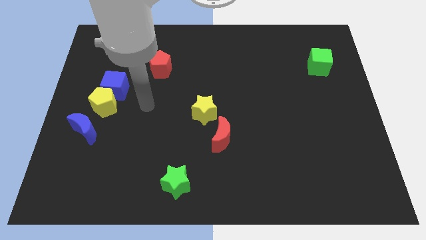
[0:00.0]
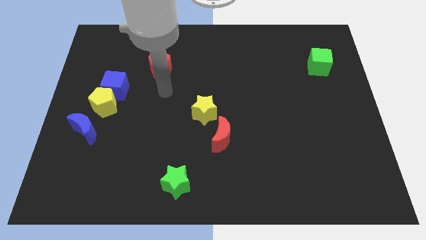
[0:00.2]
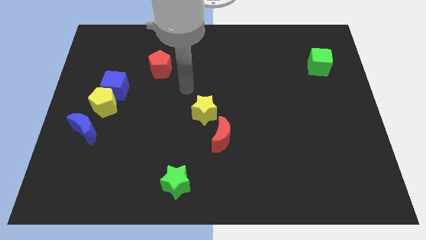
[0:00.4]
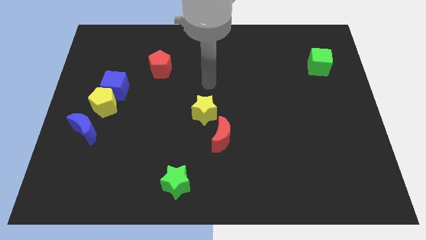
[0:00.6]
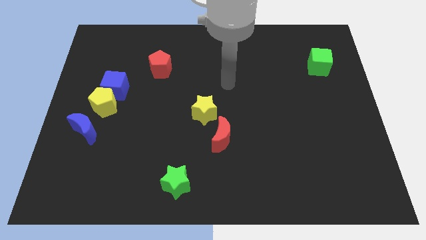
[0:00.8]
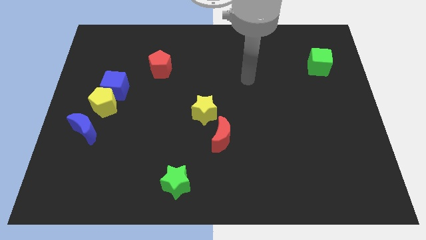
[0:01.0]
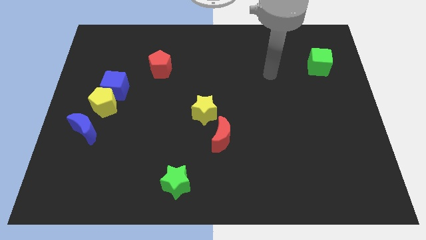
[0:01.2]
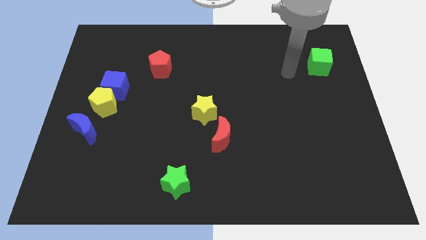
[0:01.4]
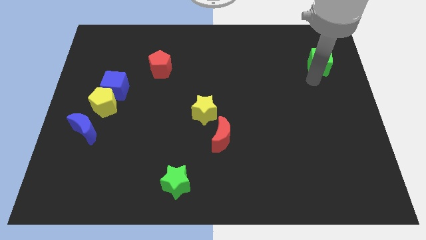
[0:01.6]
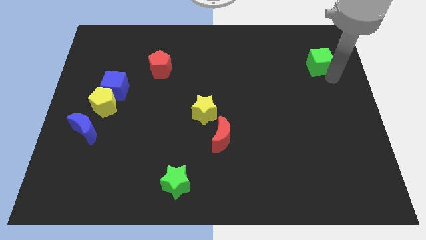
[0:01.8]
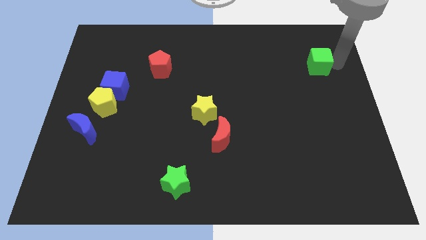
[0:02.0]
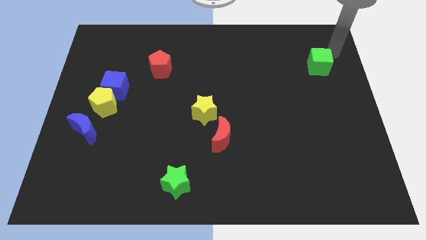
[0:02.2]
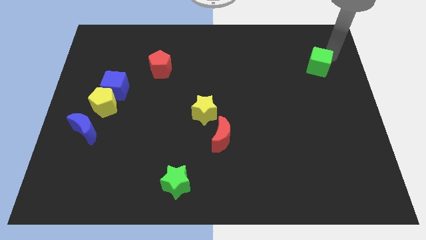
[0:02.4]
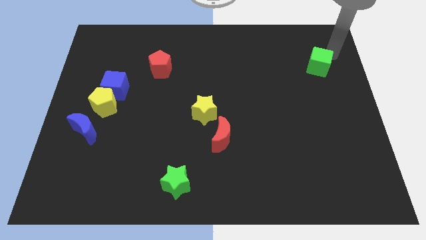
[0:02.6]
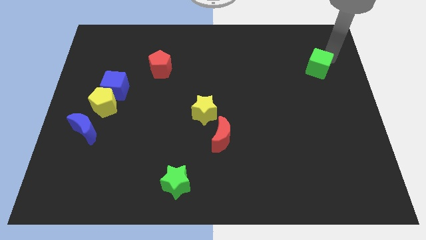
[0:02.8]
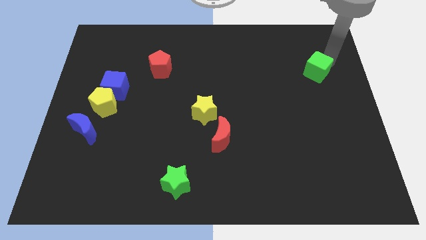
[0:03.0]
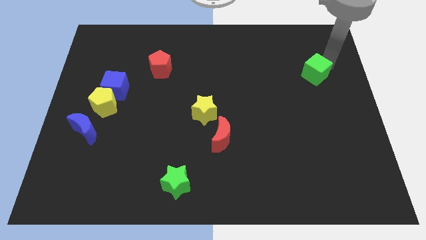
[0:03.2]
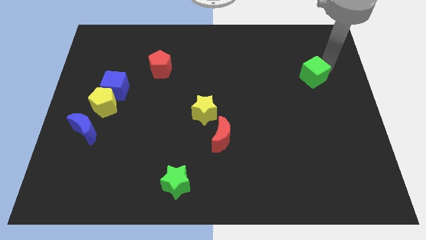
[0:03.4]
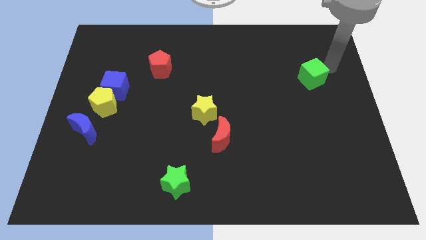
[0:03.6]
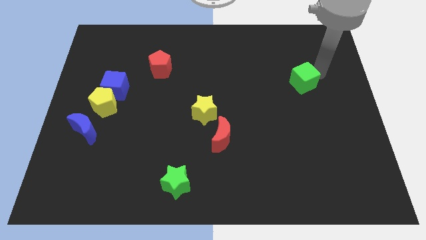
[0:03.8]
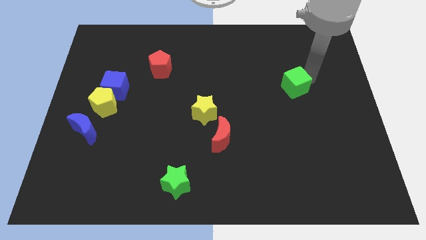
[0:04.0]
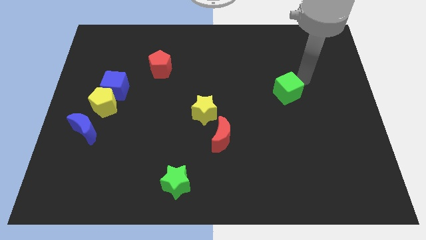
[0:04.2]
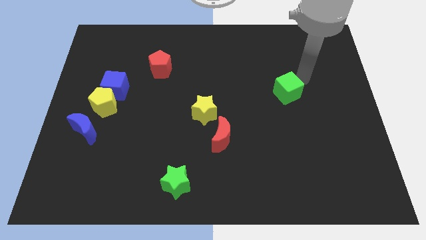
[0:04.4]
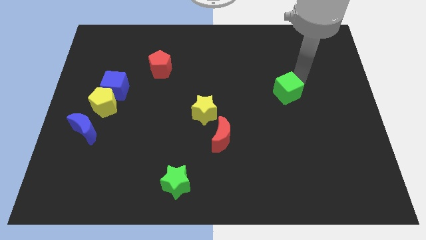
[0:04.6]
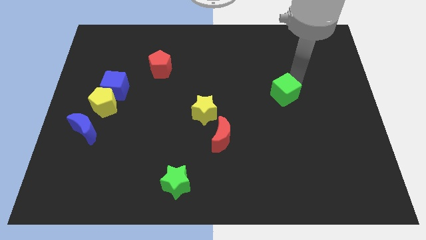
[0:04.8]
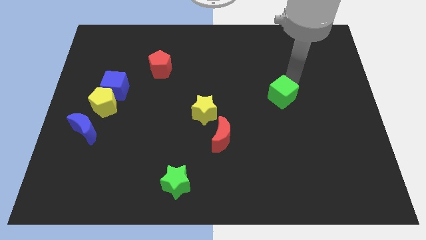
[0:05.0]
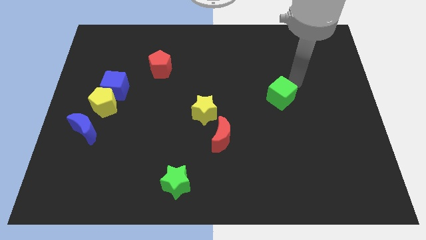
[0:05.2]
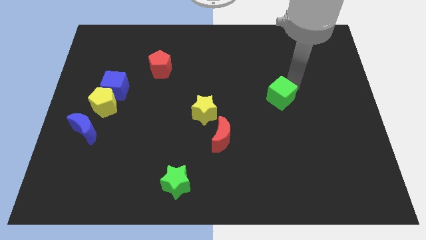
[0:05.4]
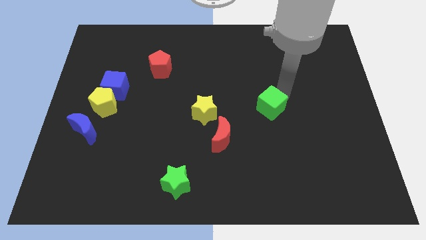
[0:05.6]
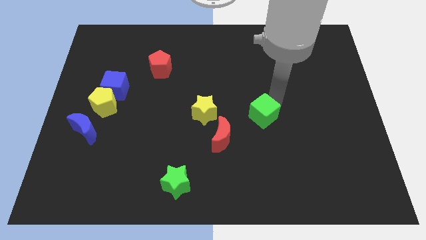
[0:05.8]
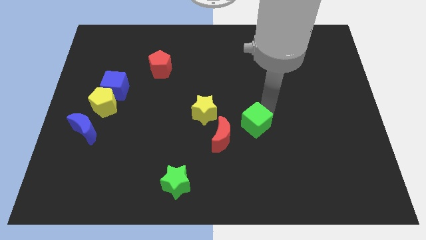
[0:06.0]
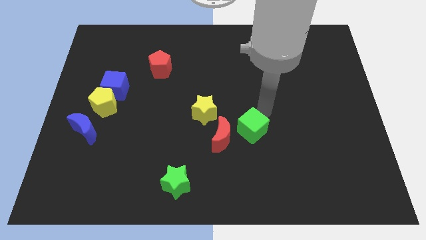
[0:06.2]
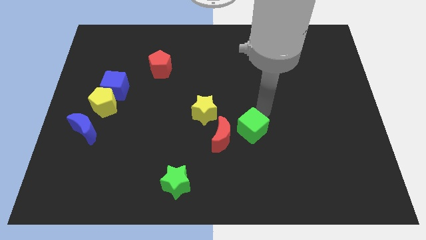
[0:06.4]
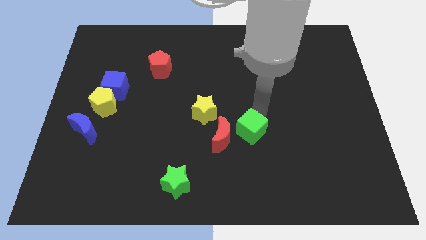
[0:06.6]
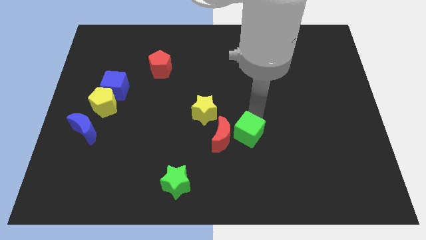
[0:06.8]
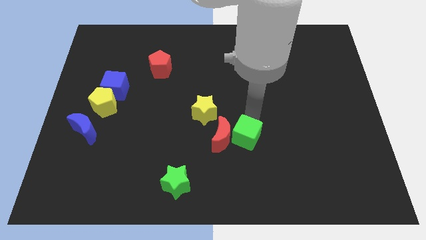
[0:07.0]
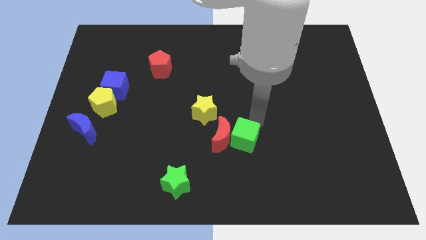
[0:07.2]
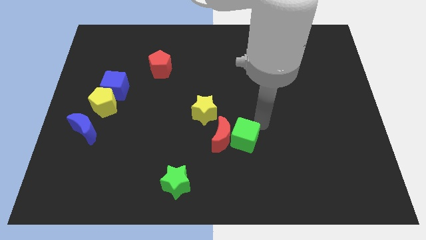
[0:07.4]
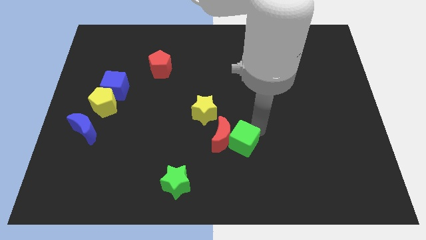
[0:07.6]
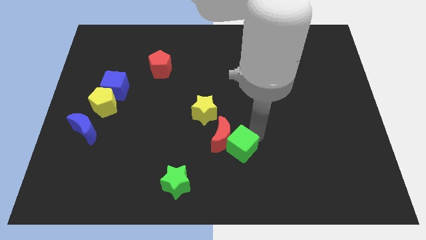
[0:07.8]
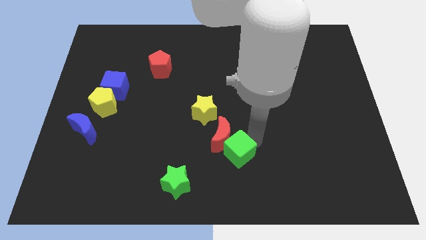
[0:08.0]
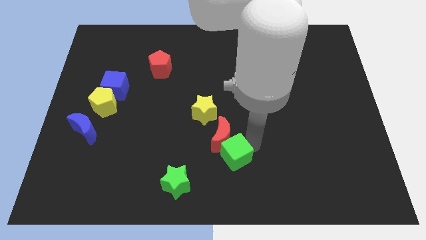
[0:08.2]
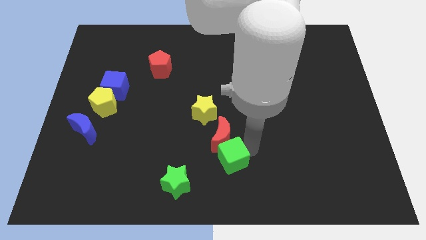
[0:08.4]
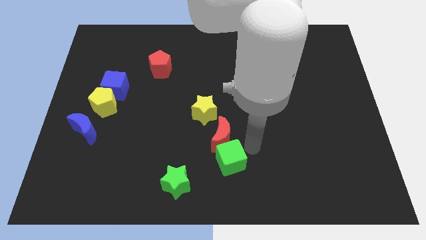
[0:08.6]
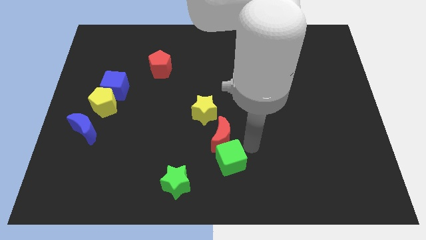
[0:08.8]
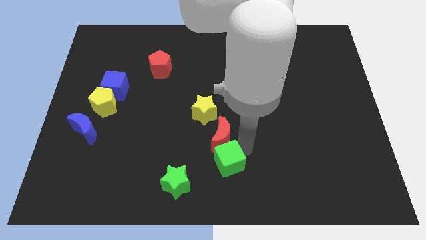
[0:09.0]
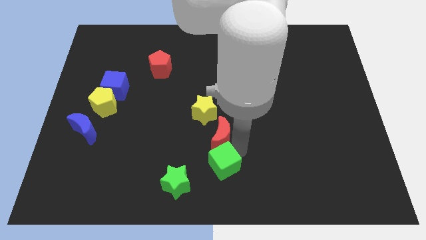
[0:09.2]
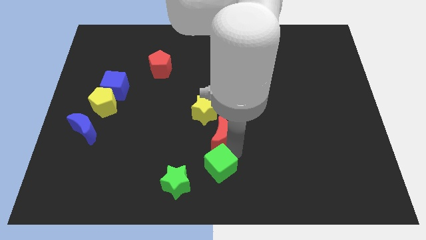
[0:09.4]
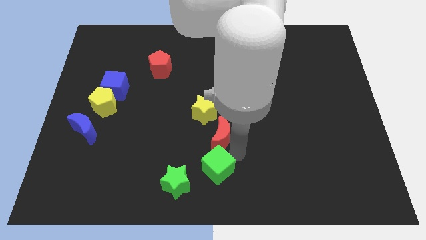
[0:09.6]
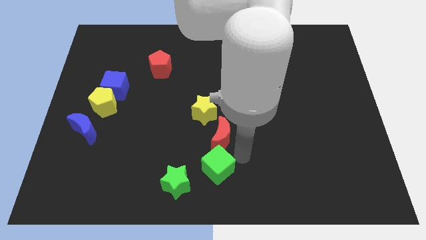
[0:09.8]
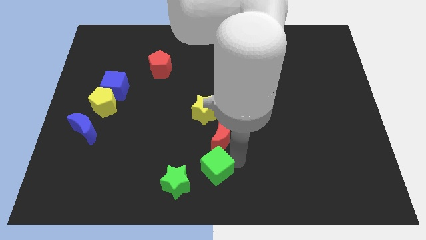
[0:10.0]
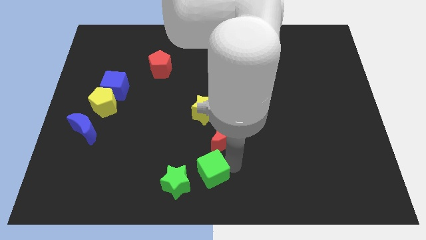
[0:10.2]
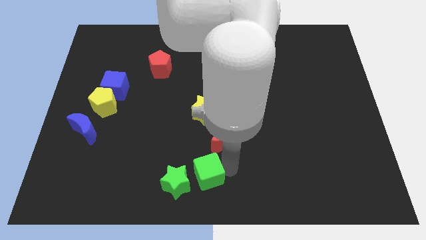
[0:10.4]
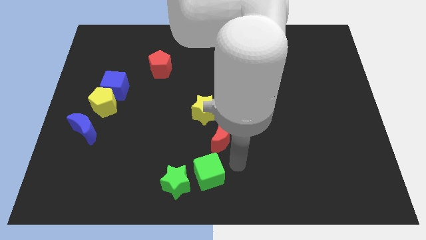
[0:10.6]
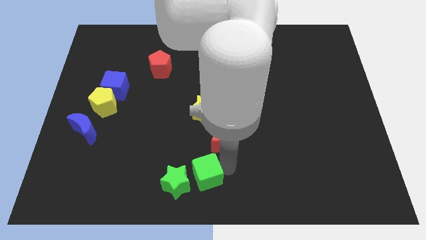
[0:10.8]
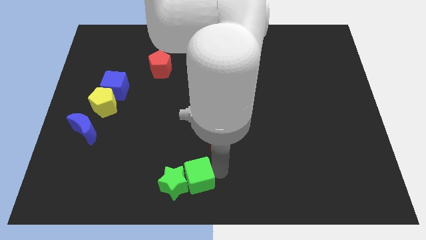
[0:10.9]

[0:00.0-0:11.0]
put the green cube to the green star

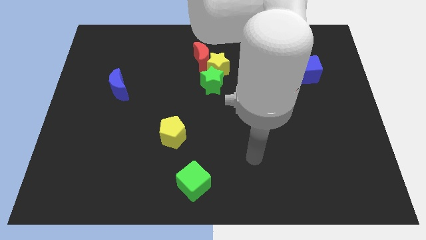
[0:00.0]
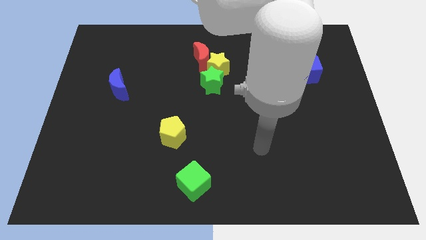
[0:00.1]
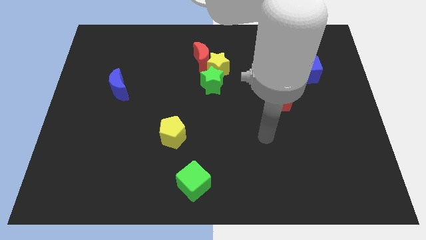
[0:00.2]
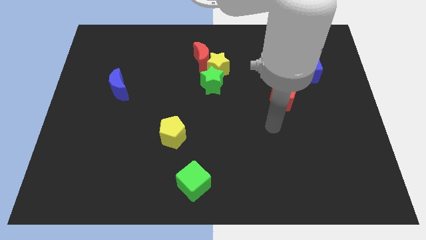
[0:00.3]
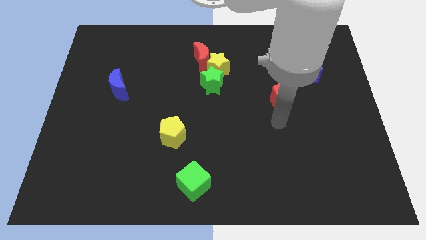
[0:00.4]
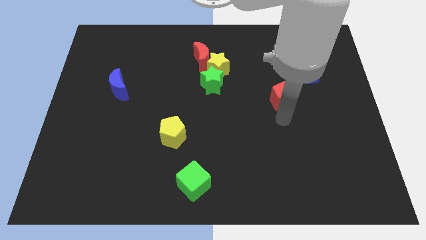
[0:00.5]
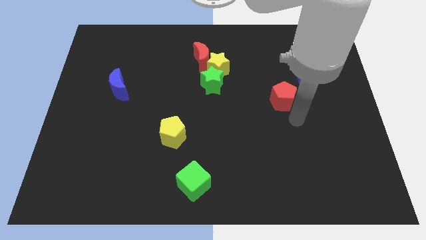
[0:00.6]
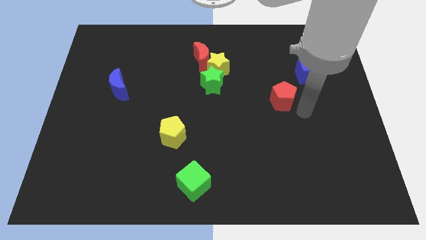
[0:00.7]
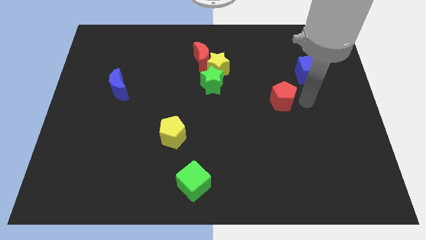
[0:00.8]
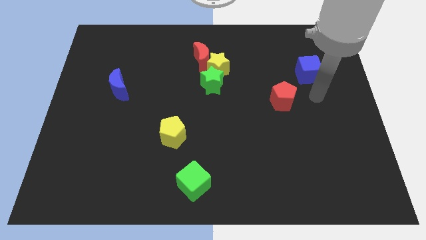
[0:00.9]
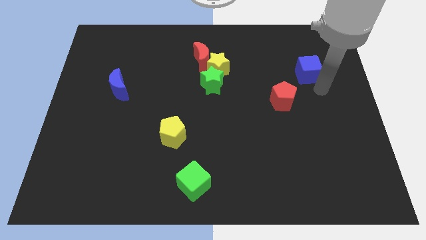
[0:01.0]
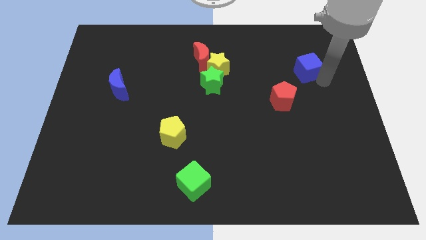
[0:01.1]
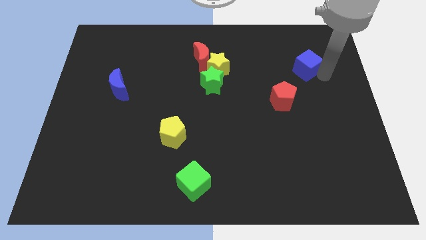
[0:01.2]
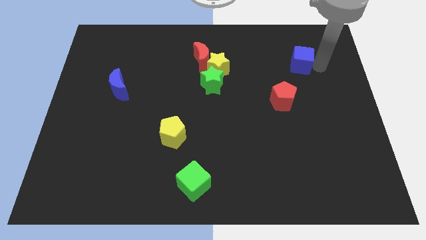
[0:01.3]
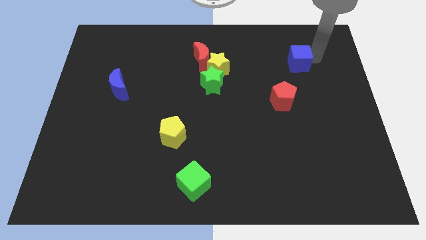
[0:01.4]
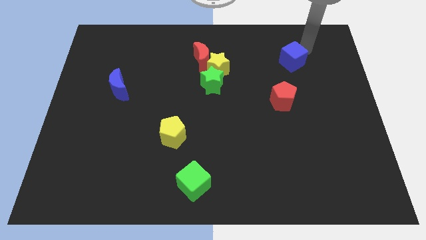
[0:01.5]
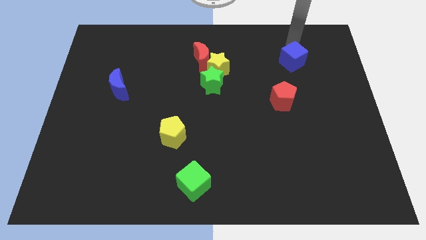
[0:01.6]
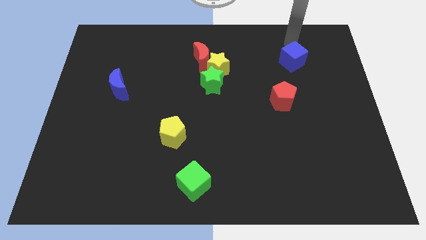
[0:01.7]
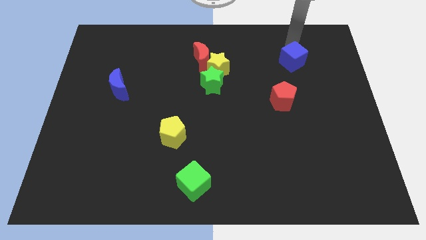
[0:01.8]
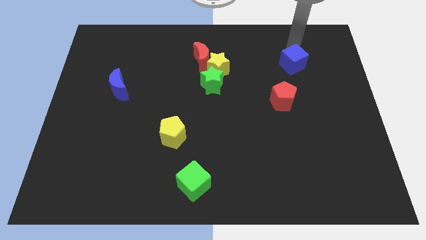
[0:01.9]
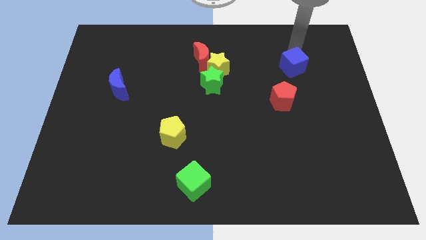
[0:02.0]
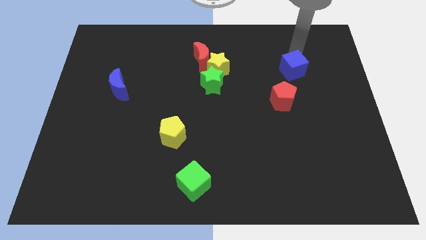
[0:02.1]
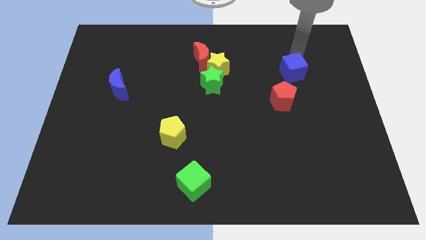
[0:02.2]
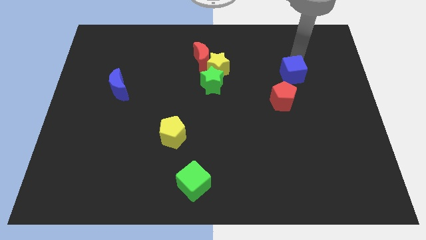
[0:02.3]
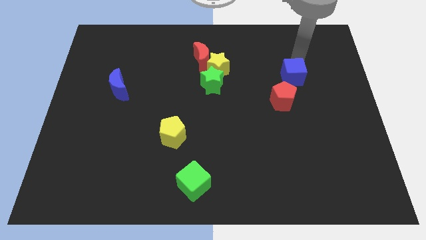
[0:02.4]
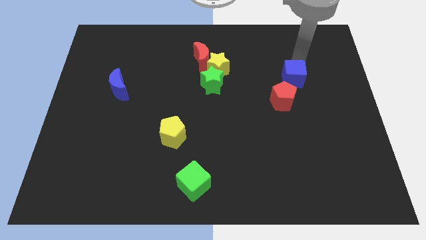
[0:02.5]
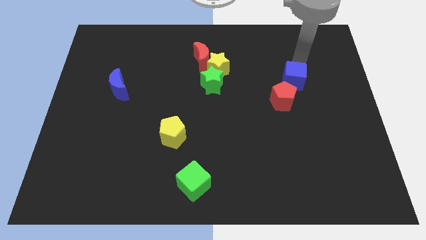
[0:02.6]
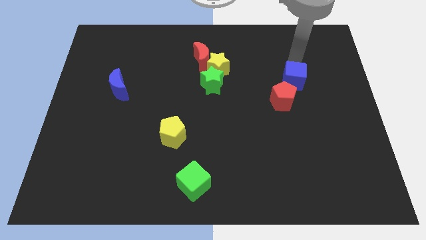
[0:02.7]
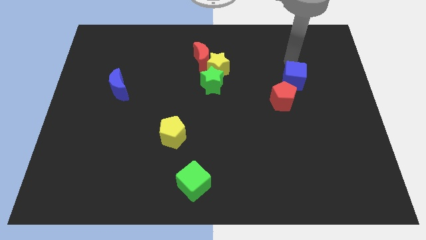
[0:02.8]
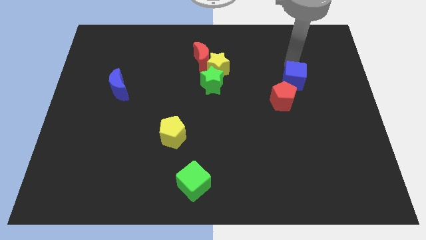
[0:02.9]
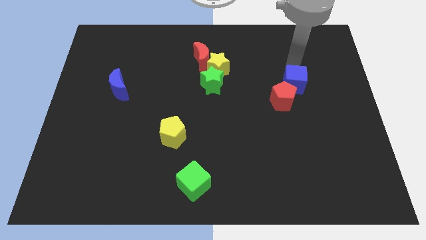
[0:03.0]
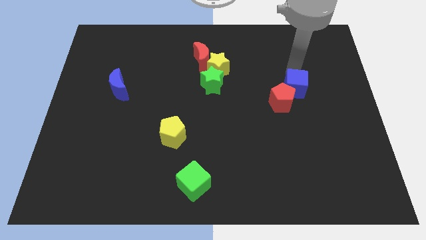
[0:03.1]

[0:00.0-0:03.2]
push the blue cube close to the red pentagon
